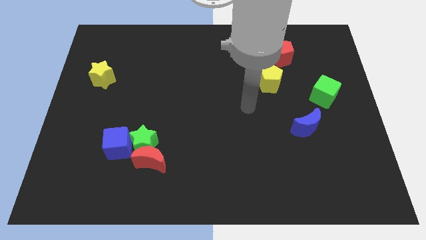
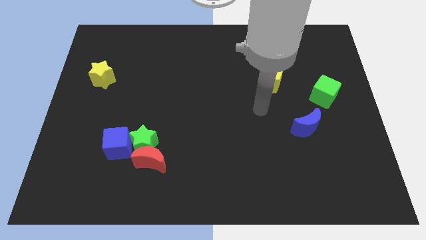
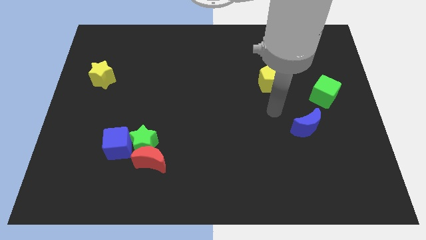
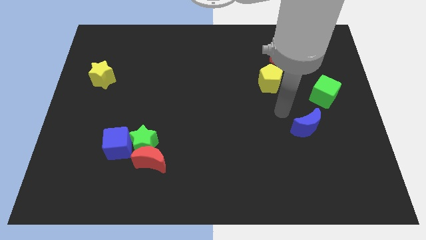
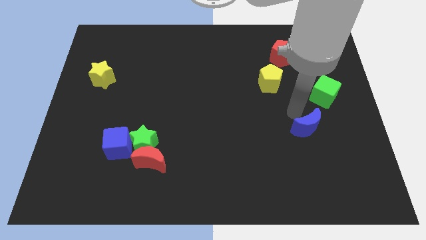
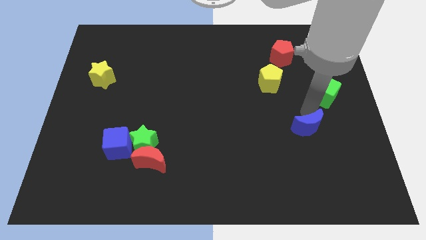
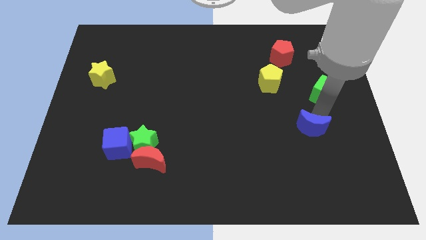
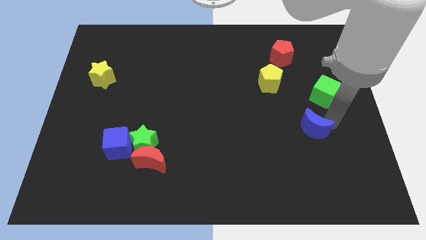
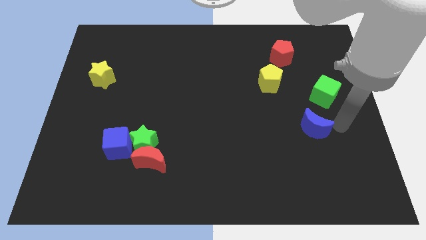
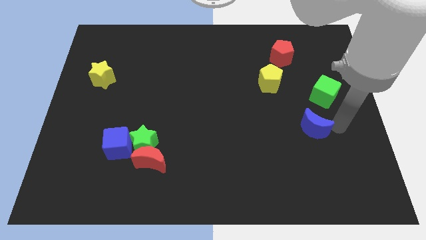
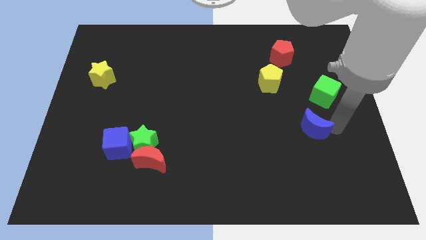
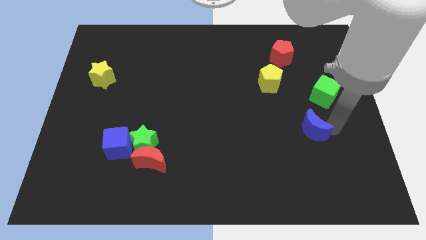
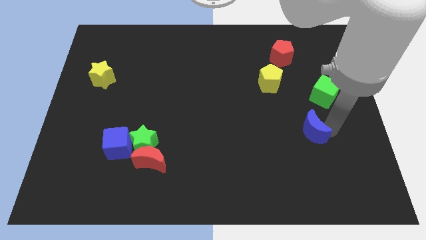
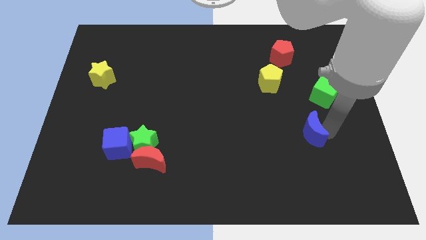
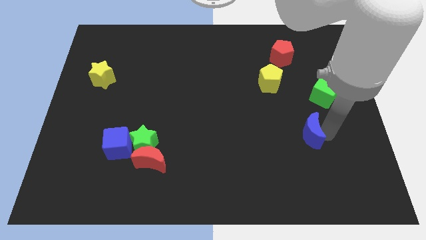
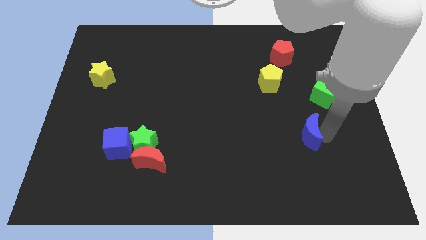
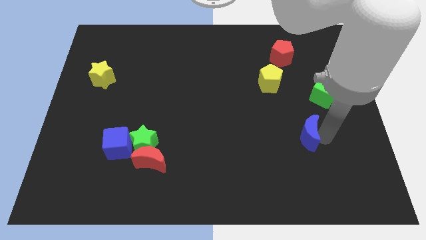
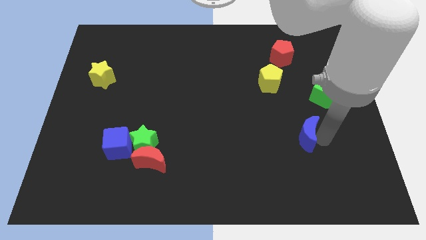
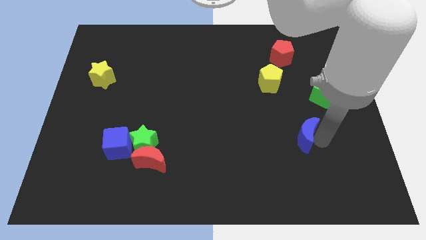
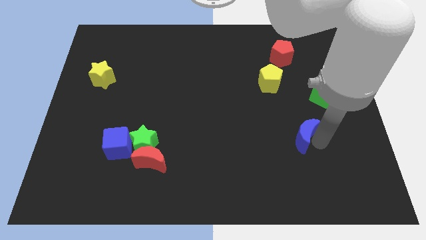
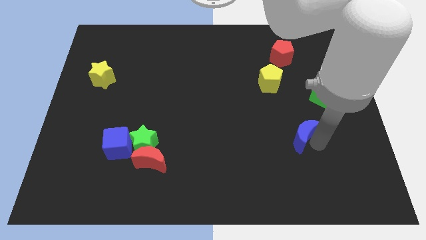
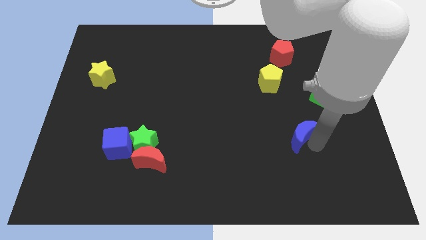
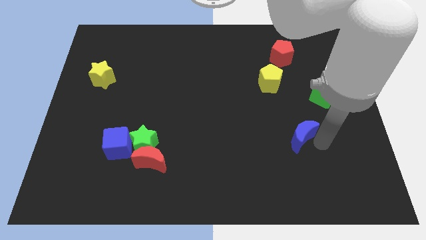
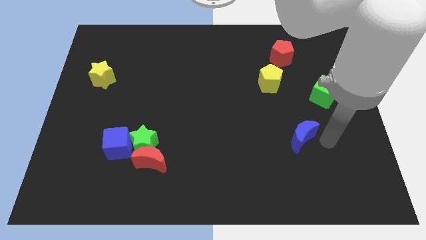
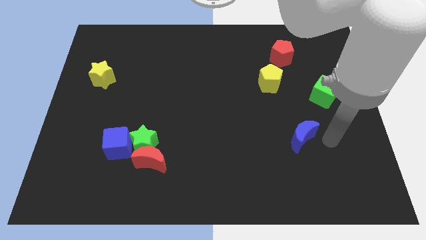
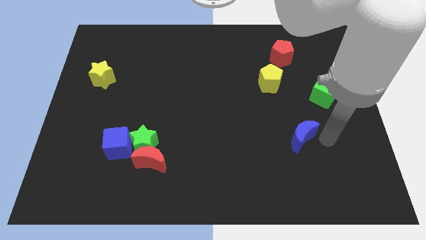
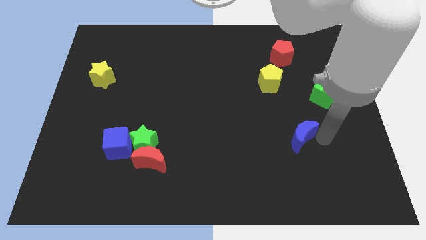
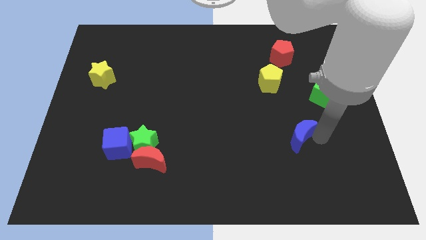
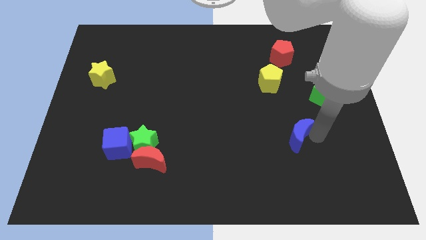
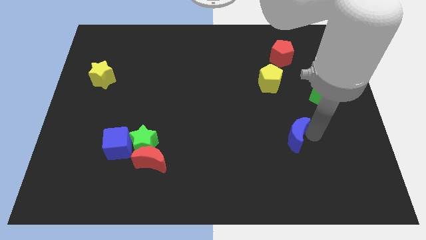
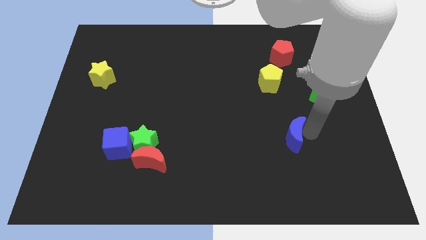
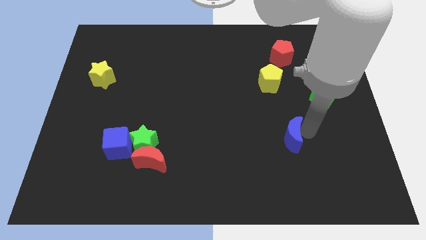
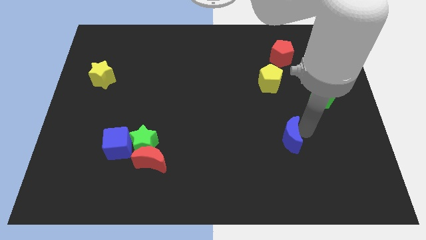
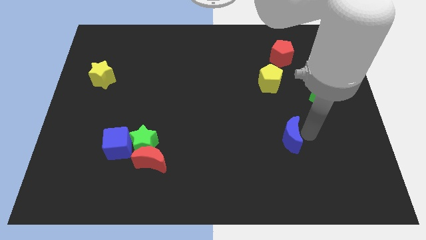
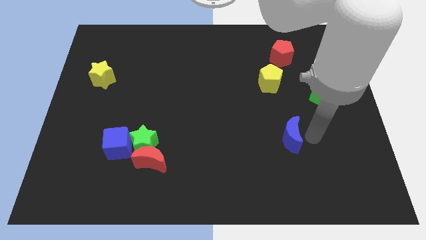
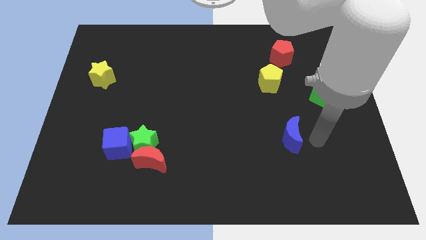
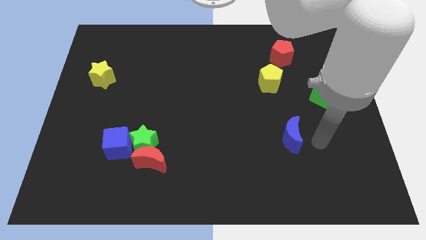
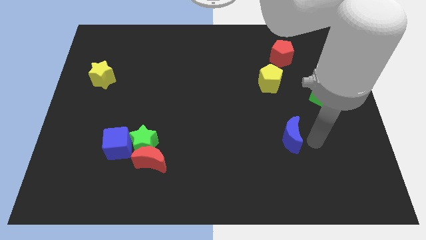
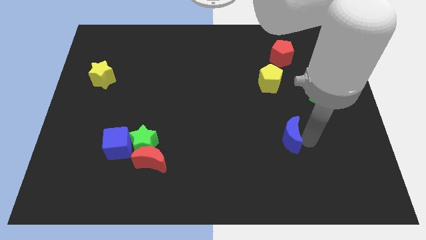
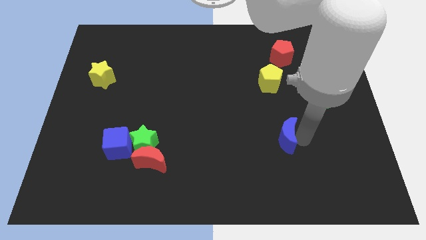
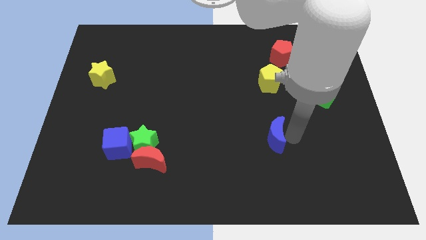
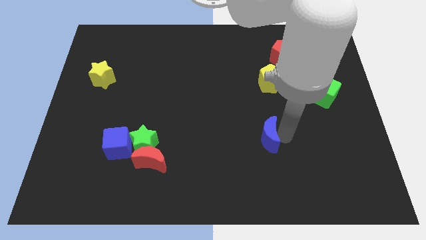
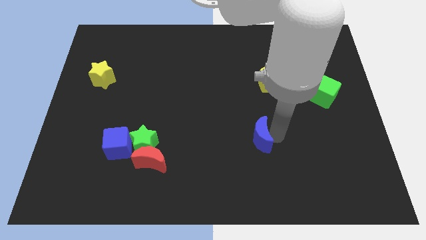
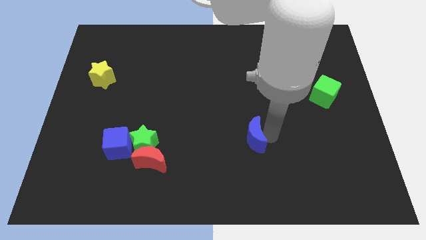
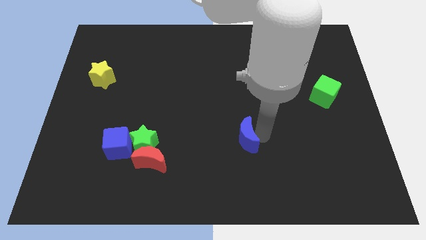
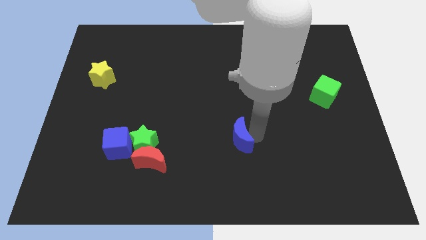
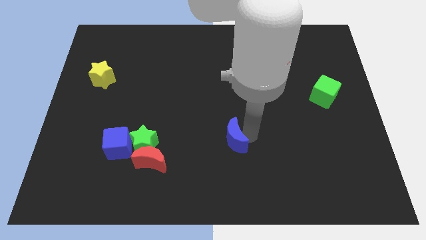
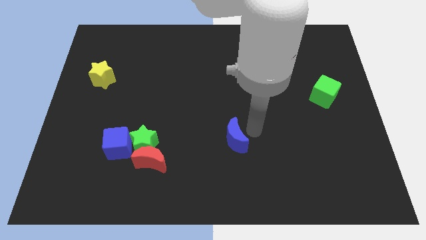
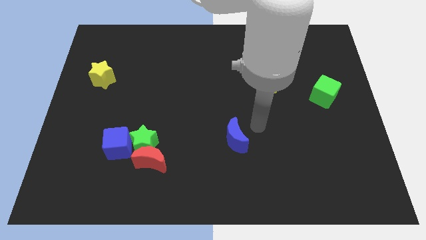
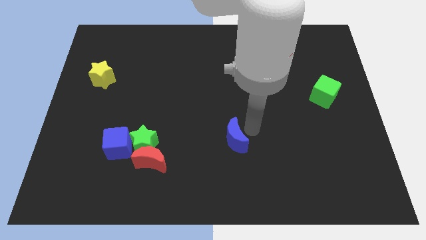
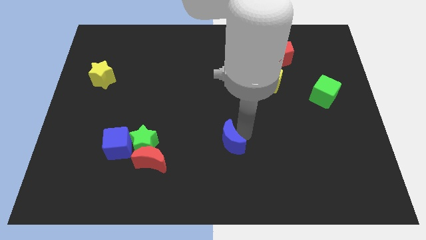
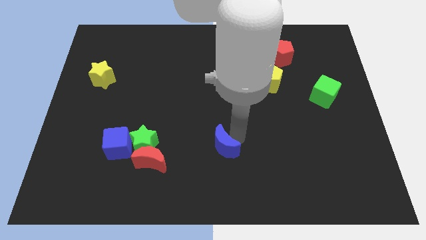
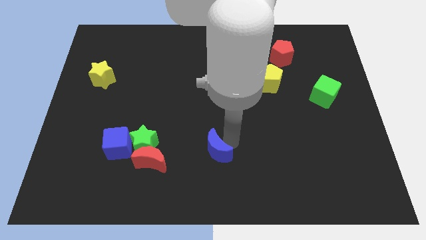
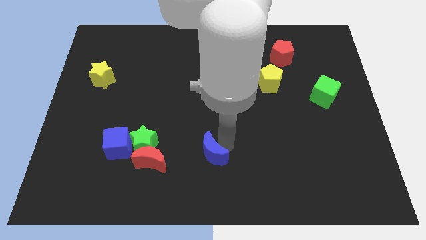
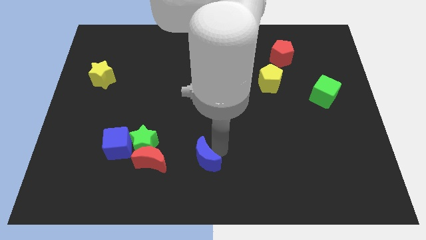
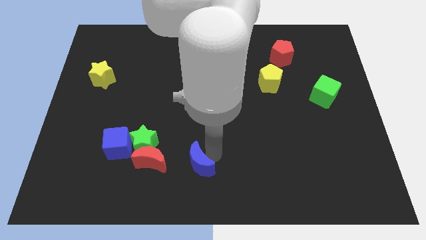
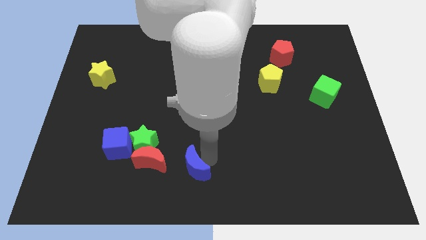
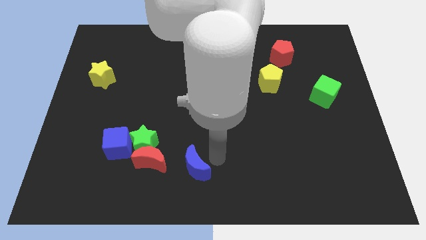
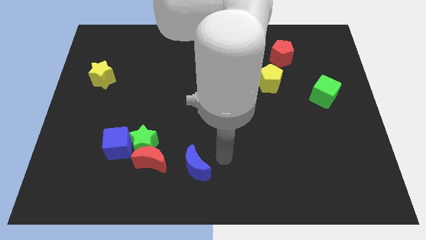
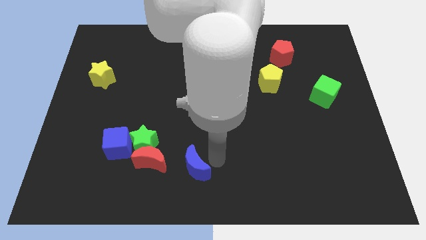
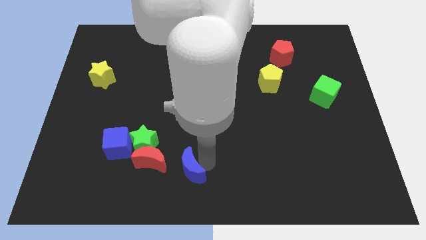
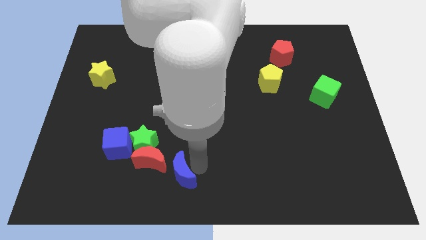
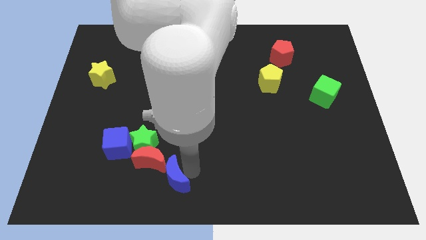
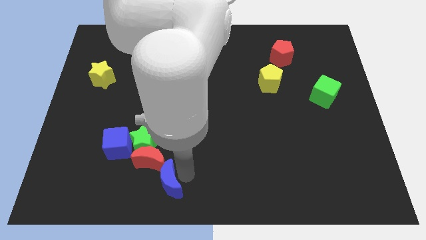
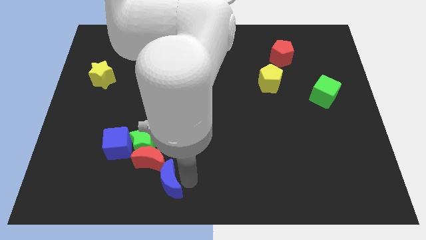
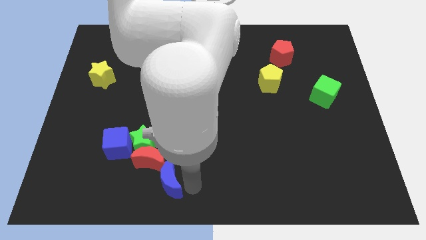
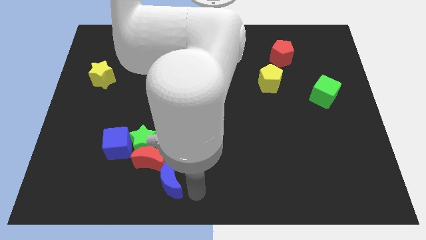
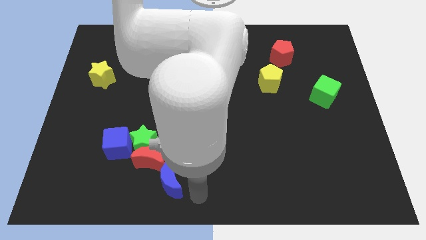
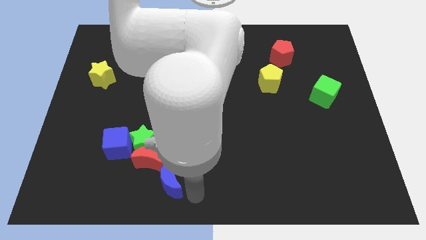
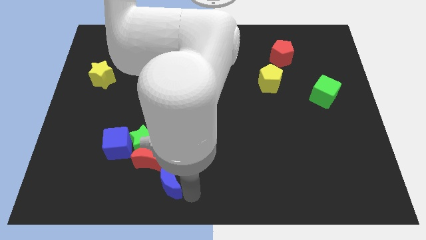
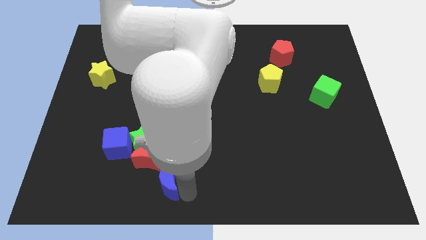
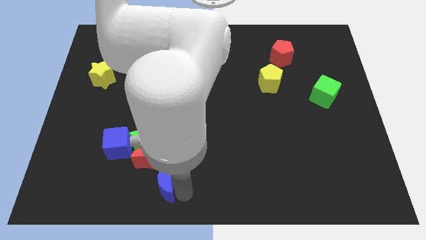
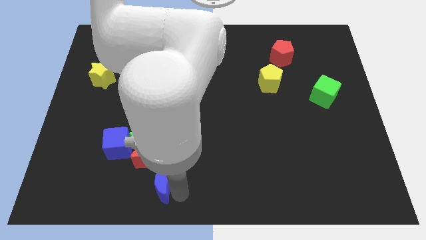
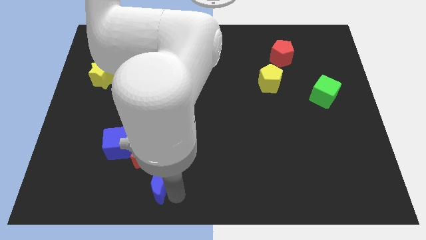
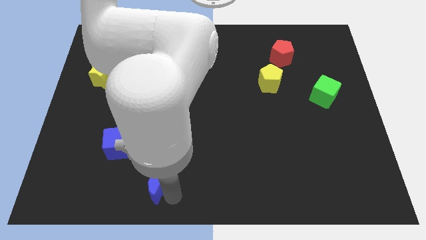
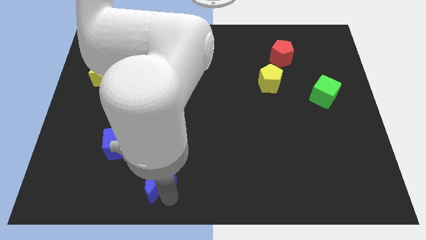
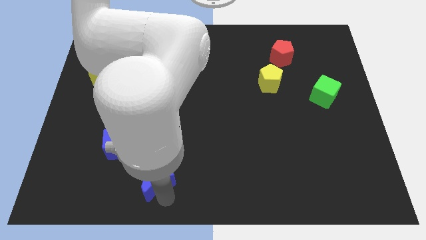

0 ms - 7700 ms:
push the blue moon to the bottom right side of the blue cube

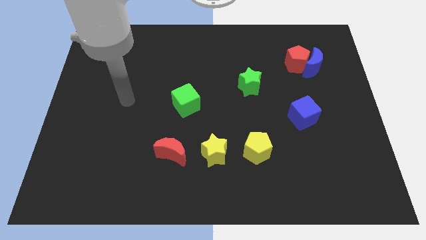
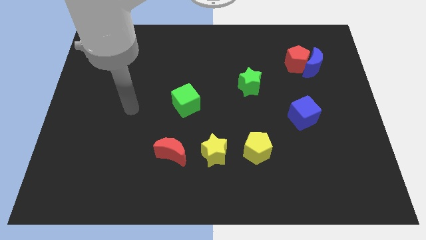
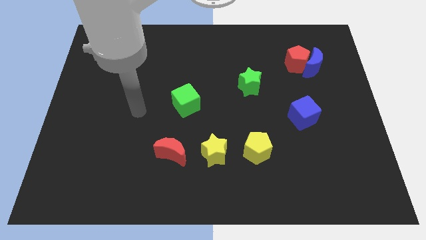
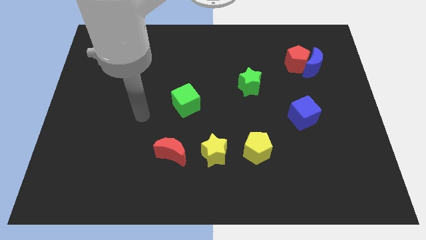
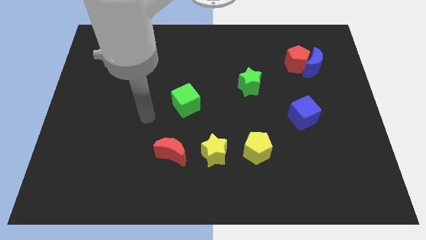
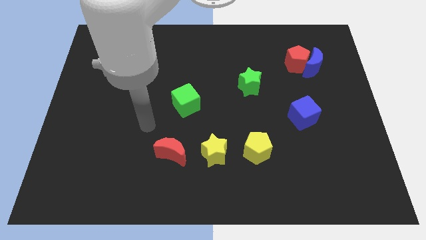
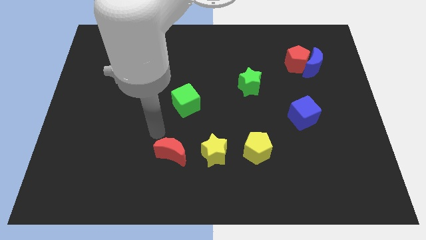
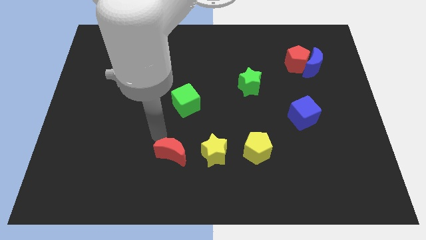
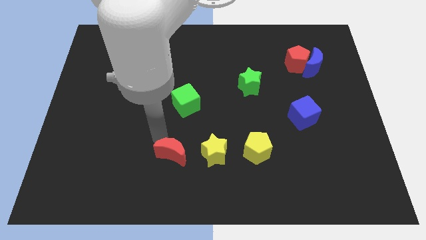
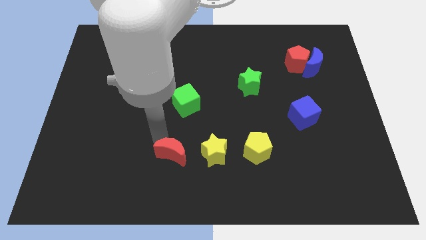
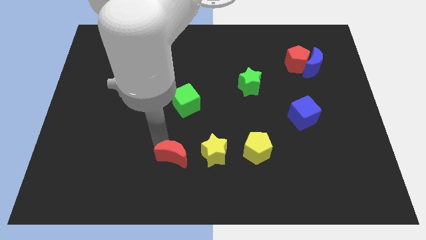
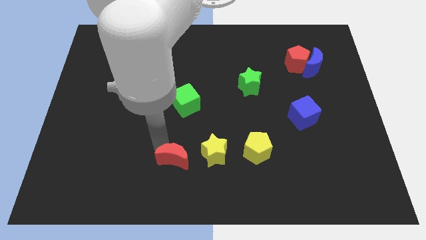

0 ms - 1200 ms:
move the red moon to the bottom left side of the yellow star
